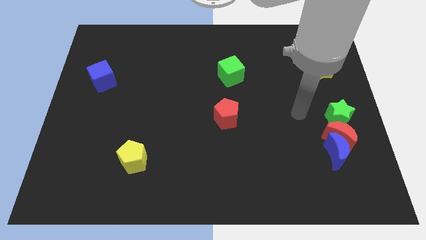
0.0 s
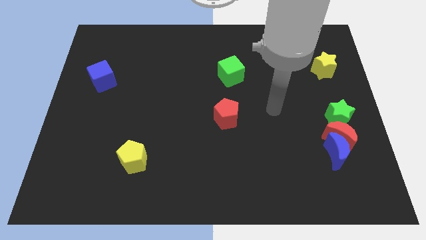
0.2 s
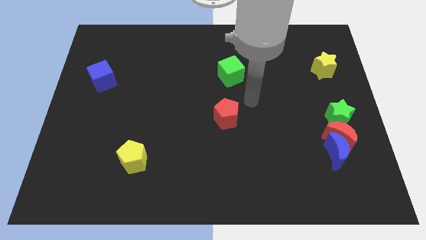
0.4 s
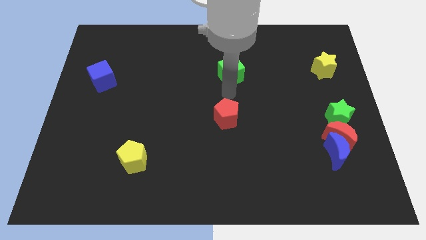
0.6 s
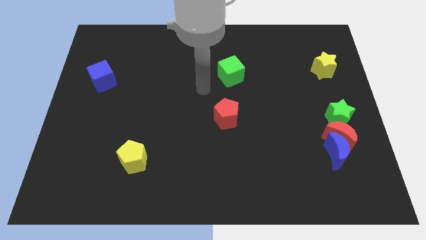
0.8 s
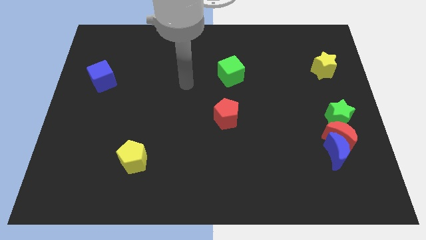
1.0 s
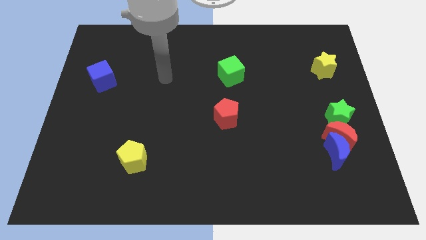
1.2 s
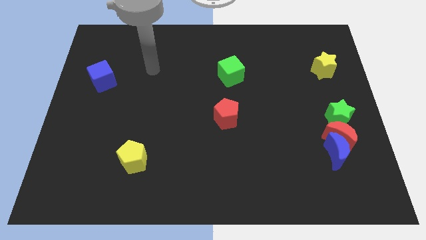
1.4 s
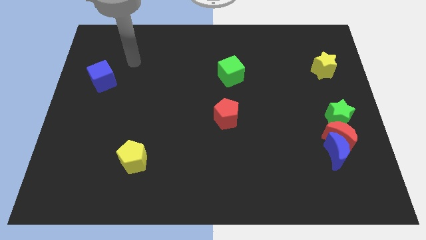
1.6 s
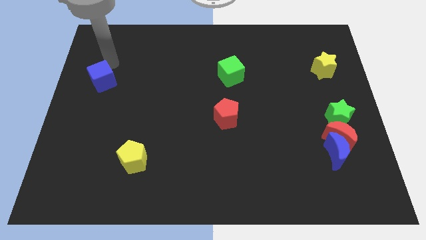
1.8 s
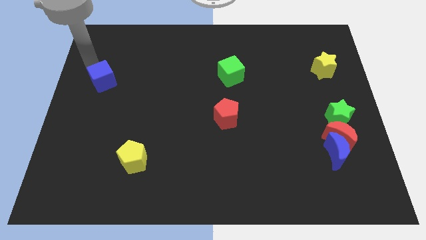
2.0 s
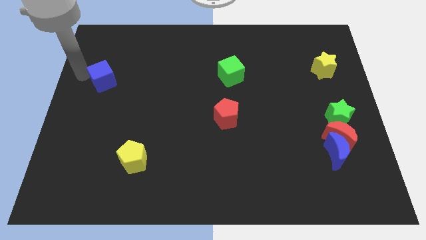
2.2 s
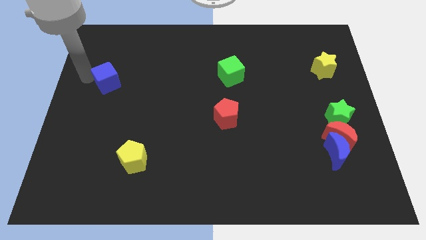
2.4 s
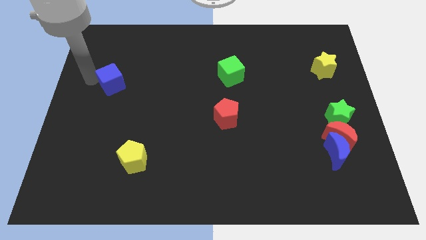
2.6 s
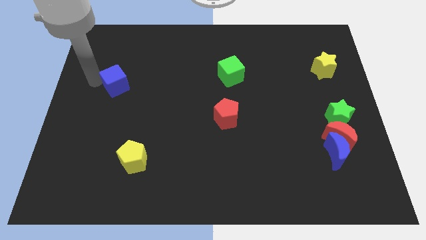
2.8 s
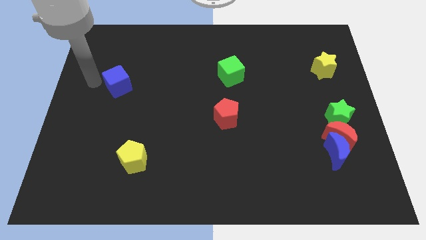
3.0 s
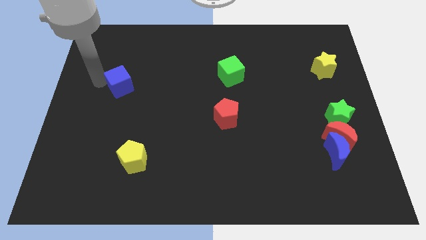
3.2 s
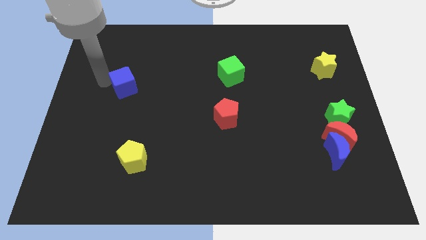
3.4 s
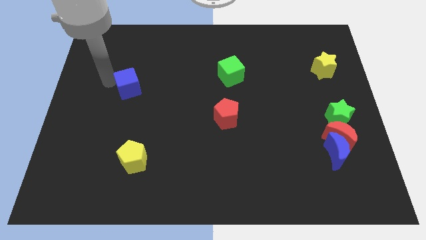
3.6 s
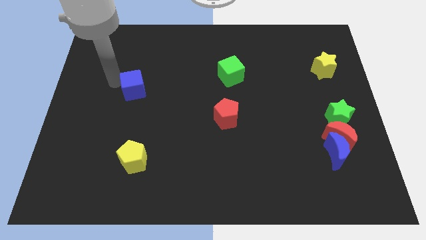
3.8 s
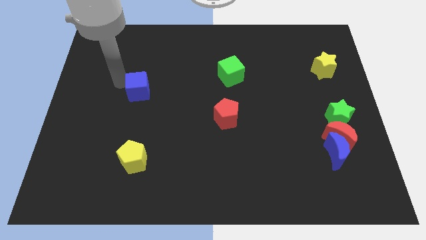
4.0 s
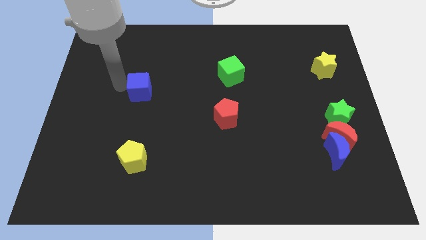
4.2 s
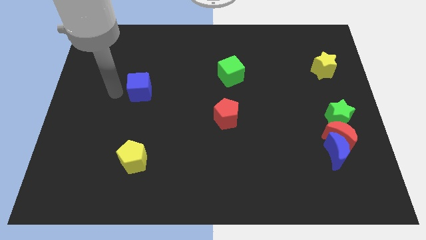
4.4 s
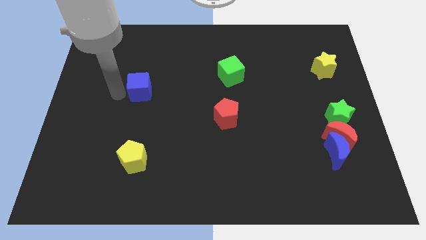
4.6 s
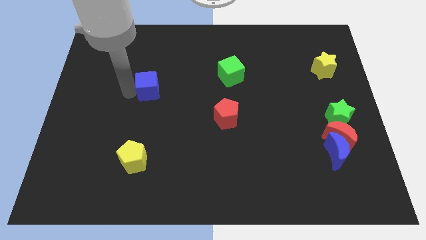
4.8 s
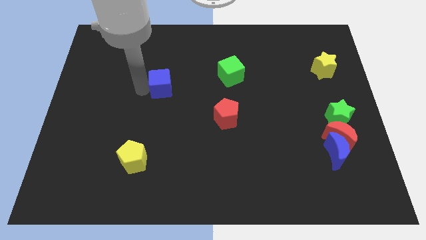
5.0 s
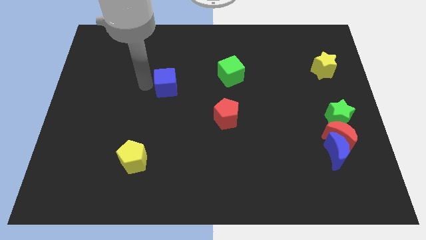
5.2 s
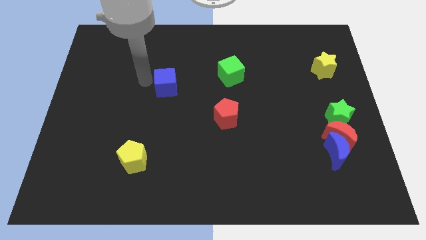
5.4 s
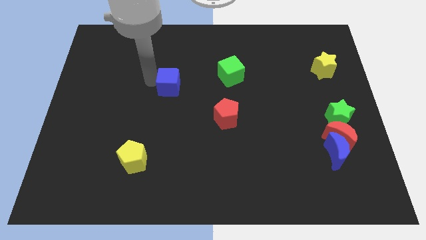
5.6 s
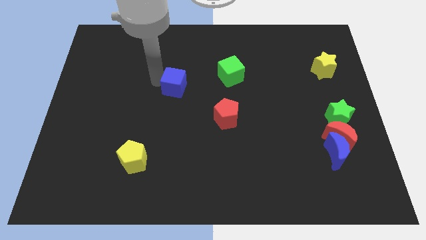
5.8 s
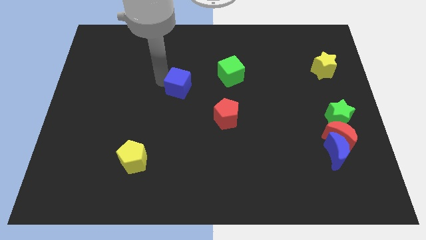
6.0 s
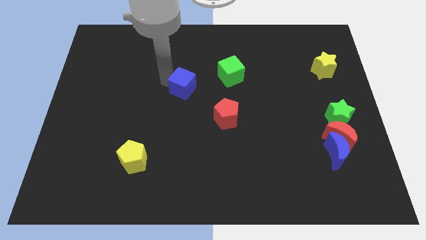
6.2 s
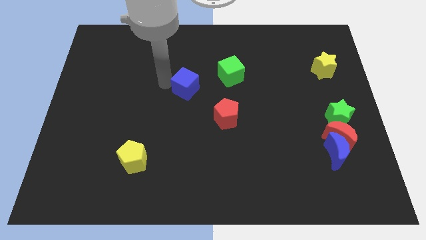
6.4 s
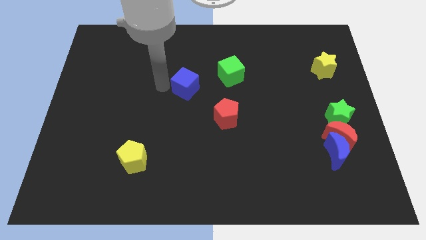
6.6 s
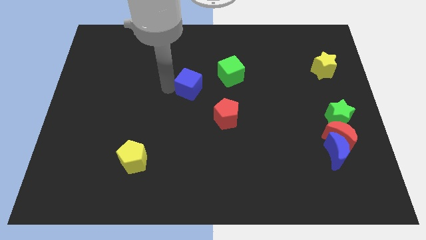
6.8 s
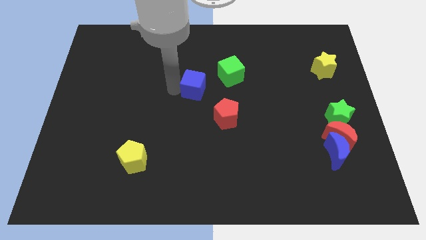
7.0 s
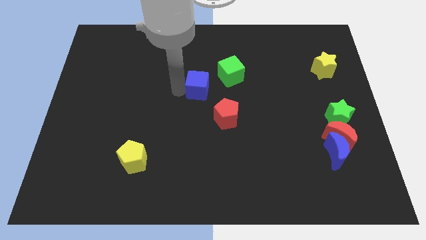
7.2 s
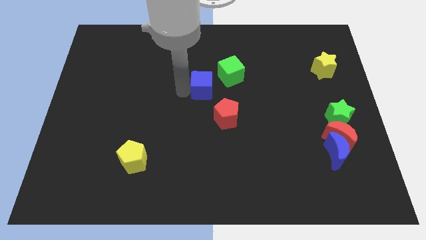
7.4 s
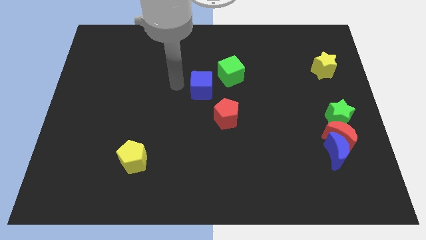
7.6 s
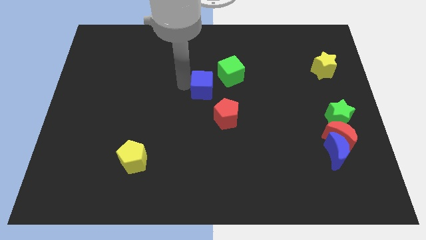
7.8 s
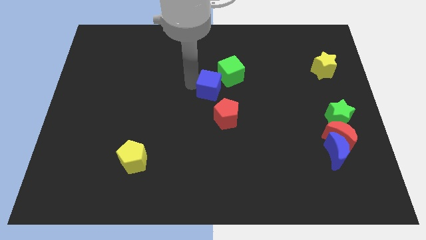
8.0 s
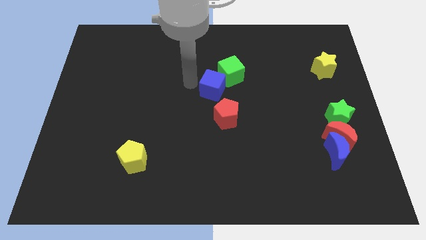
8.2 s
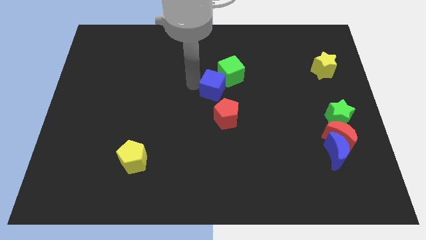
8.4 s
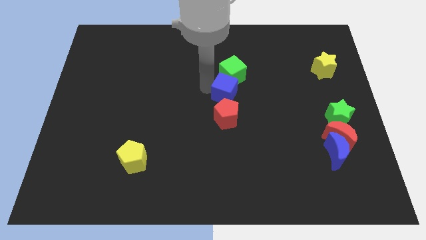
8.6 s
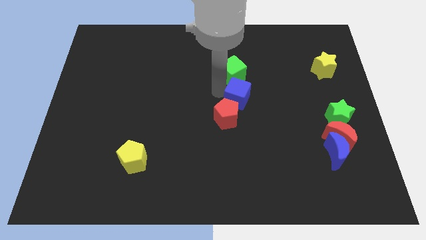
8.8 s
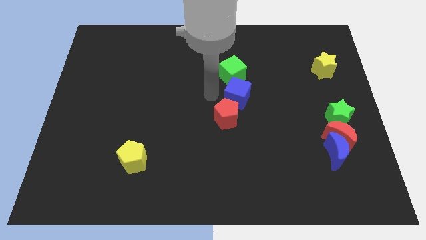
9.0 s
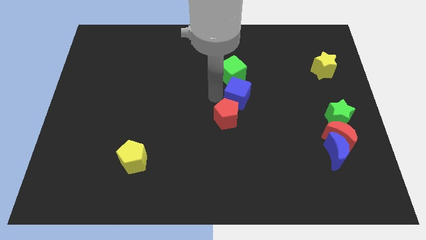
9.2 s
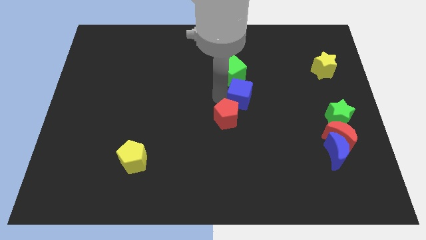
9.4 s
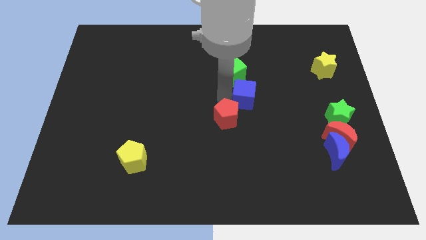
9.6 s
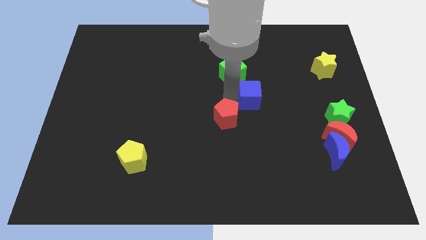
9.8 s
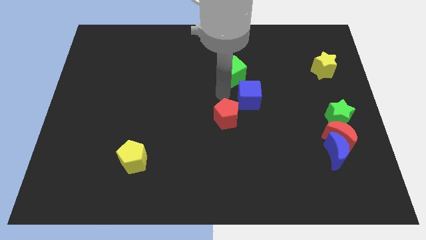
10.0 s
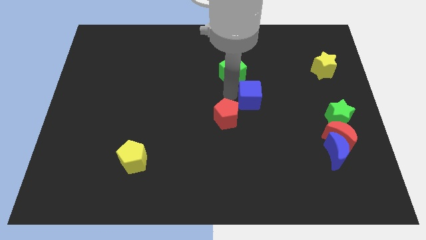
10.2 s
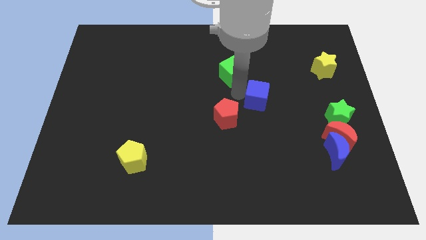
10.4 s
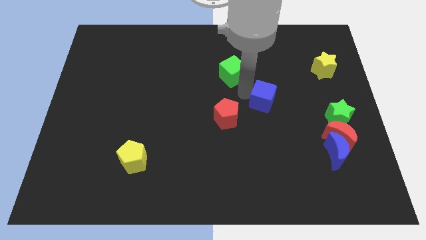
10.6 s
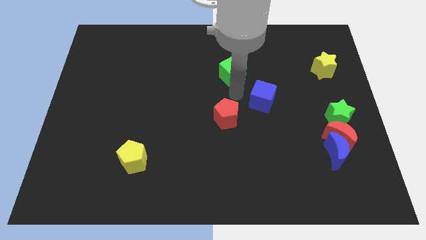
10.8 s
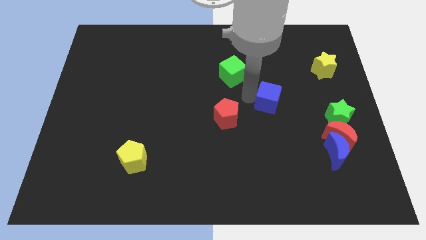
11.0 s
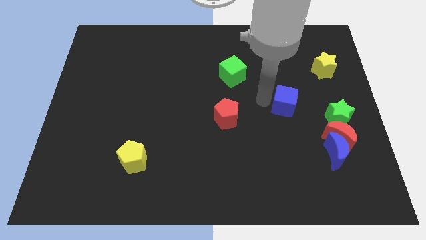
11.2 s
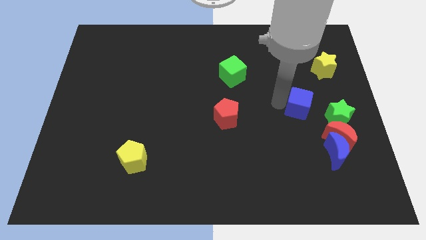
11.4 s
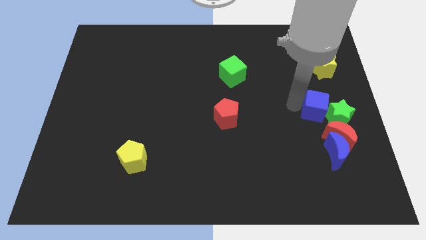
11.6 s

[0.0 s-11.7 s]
push the blue cube towards the green star
